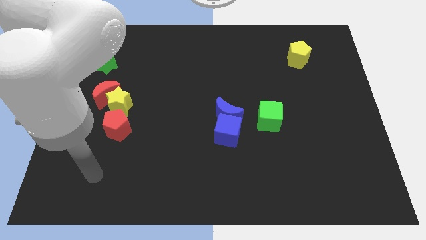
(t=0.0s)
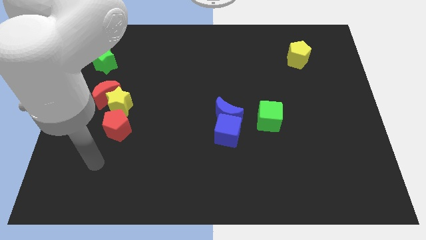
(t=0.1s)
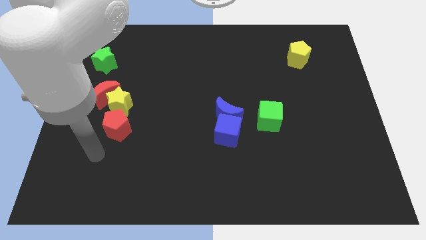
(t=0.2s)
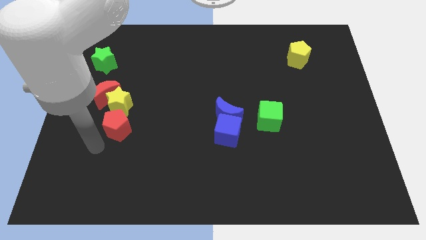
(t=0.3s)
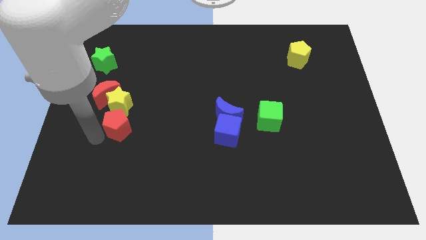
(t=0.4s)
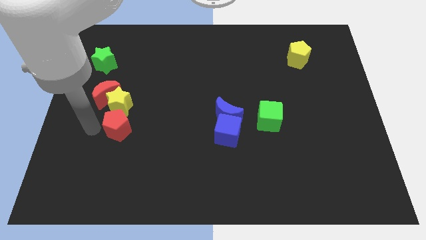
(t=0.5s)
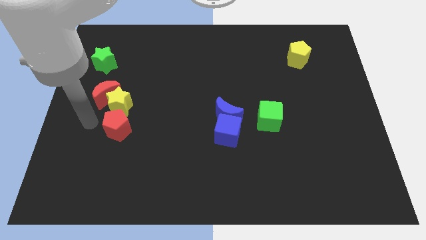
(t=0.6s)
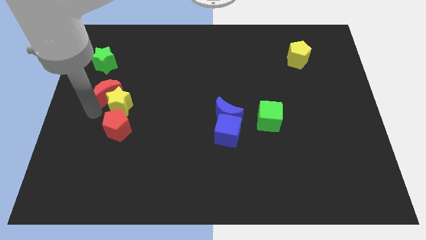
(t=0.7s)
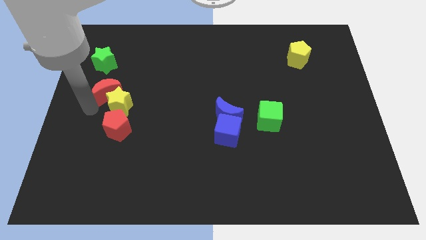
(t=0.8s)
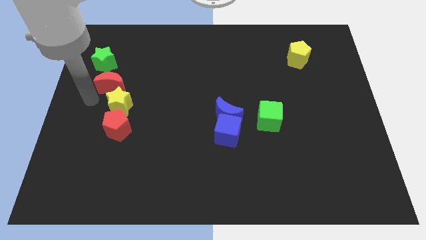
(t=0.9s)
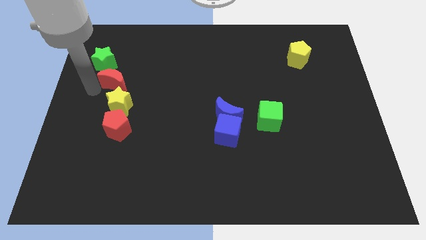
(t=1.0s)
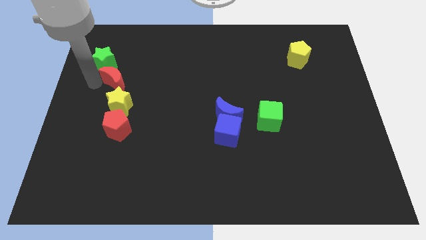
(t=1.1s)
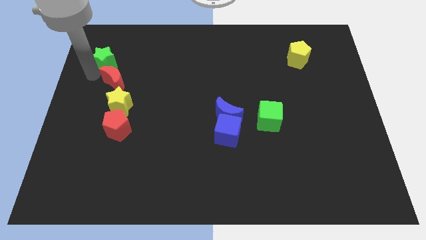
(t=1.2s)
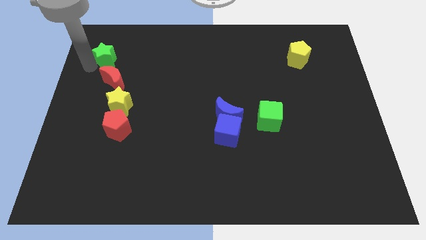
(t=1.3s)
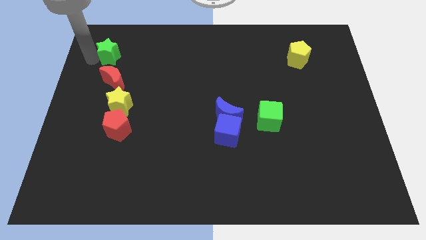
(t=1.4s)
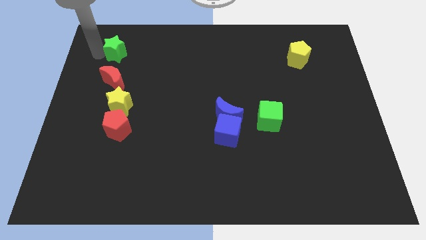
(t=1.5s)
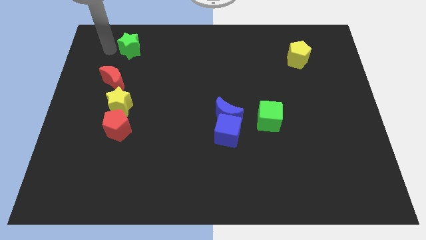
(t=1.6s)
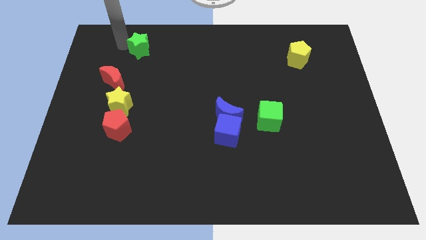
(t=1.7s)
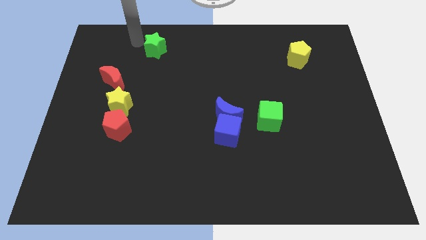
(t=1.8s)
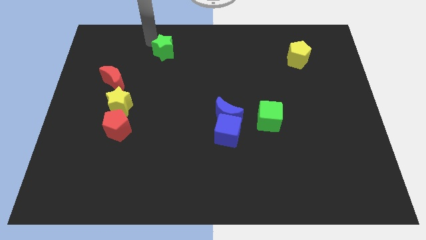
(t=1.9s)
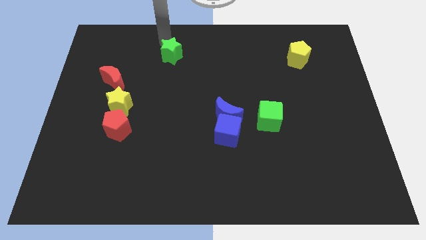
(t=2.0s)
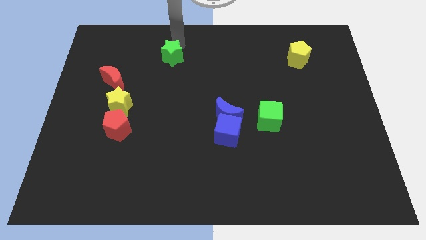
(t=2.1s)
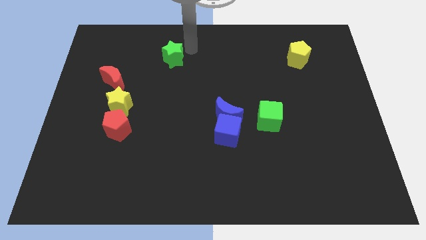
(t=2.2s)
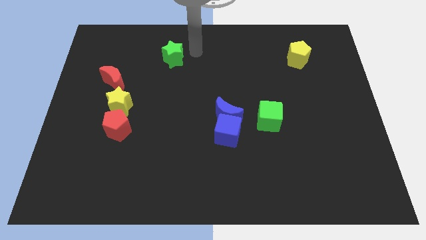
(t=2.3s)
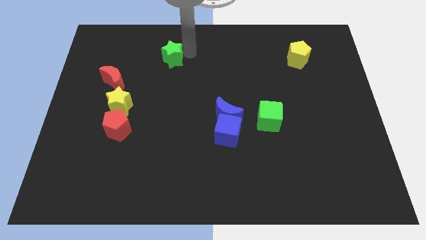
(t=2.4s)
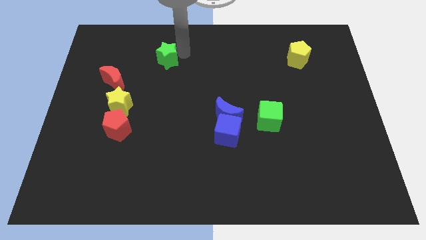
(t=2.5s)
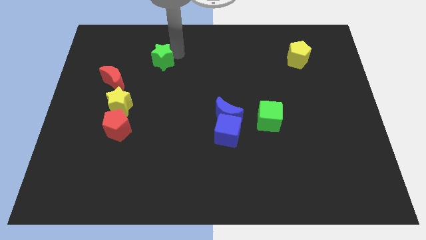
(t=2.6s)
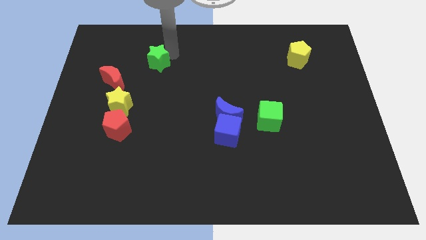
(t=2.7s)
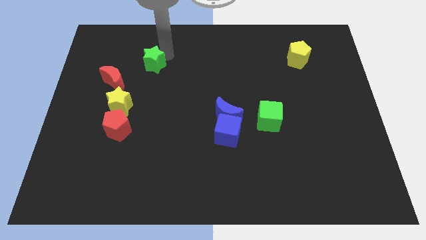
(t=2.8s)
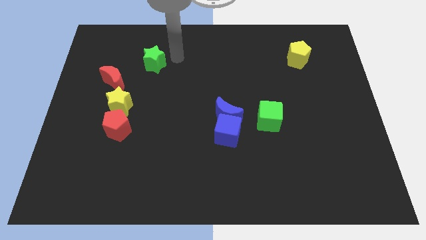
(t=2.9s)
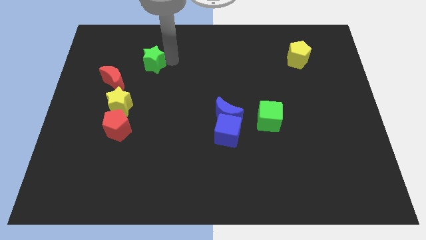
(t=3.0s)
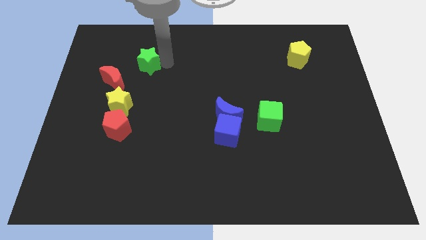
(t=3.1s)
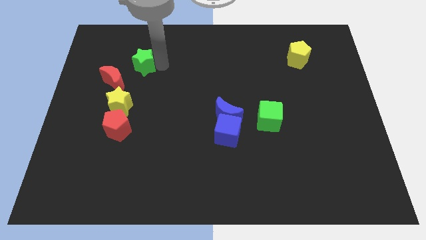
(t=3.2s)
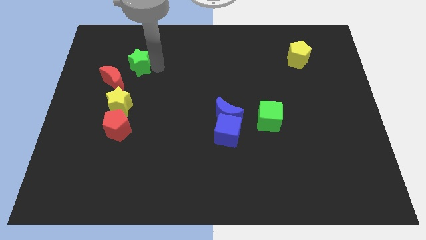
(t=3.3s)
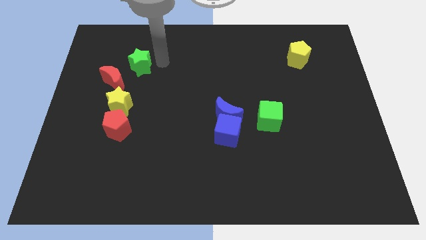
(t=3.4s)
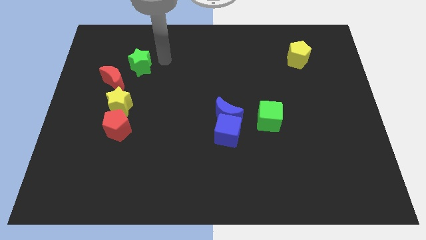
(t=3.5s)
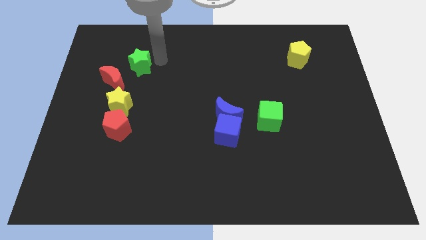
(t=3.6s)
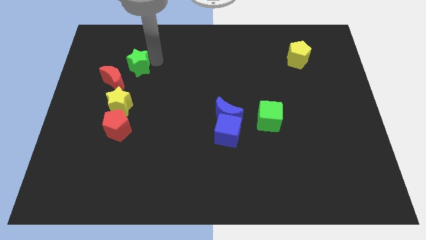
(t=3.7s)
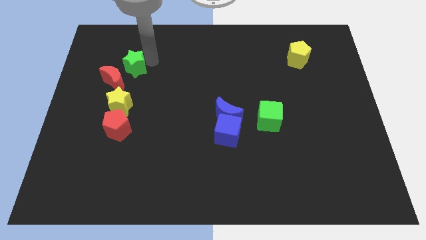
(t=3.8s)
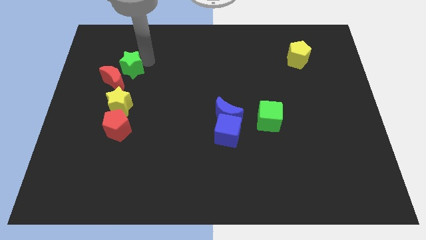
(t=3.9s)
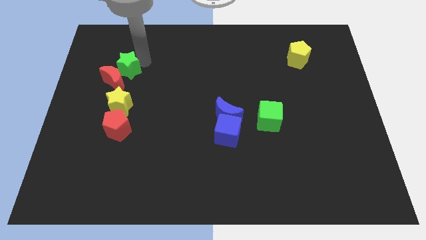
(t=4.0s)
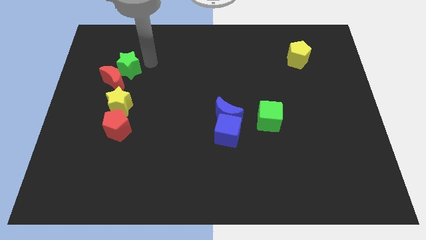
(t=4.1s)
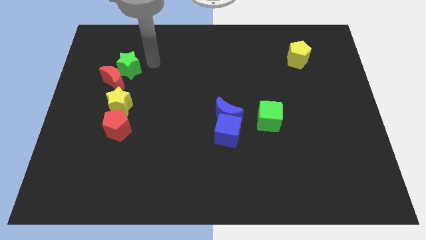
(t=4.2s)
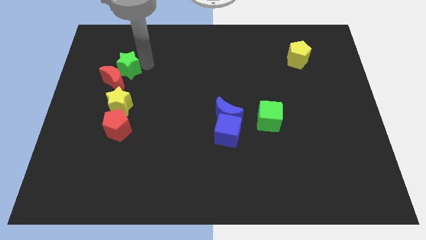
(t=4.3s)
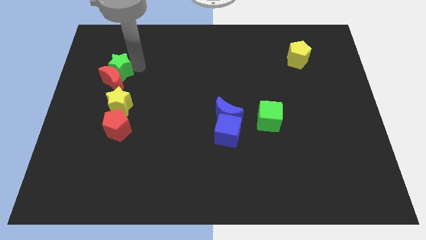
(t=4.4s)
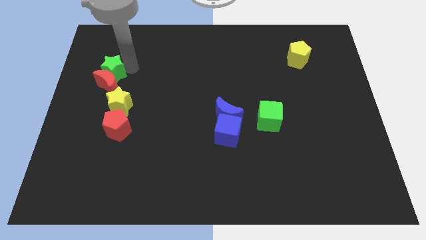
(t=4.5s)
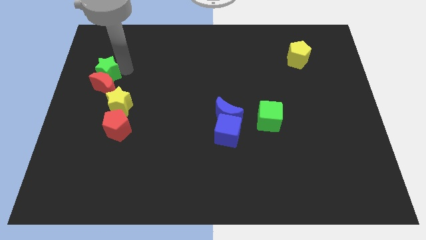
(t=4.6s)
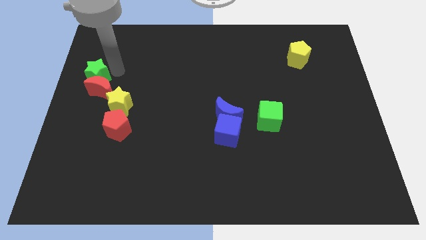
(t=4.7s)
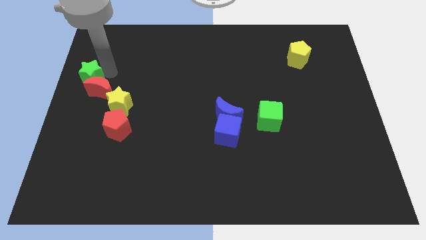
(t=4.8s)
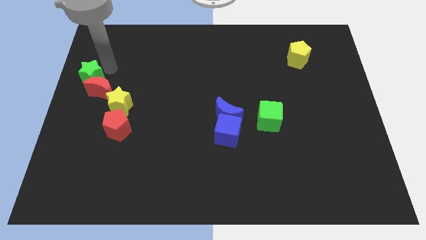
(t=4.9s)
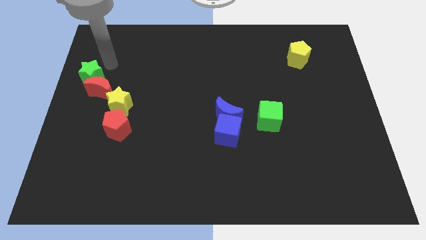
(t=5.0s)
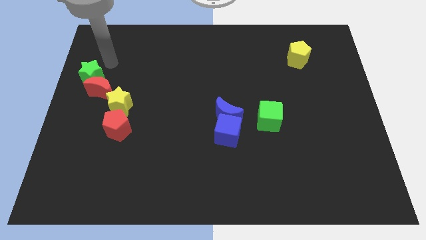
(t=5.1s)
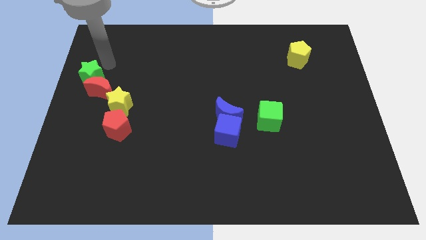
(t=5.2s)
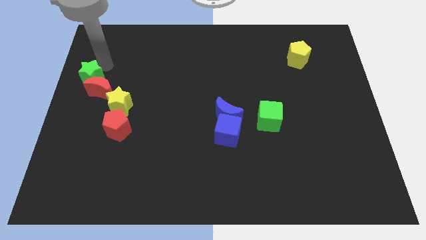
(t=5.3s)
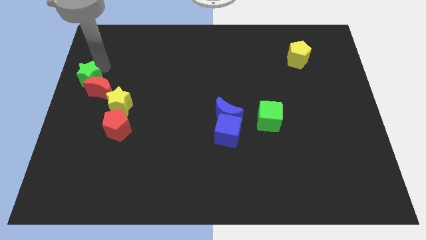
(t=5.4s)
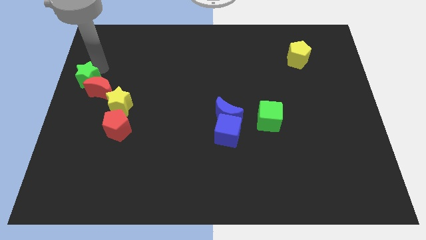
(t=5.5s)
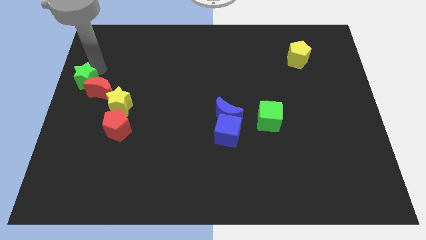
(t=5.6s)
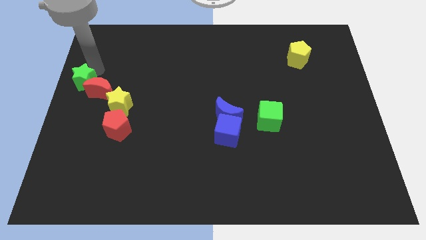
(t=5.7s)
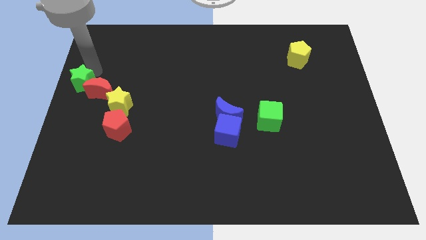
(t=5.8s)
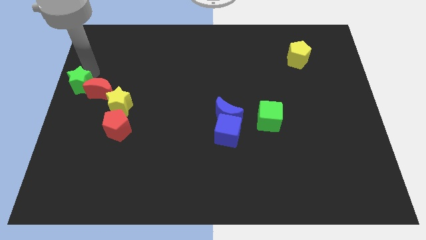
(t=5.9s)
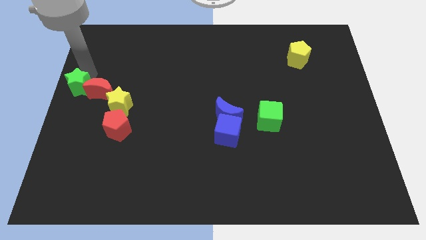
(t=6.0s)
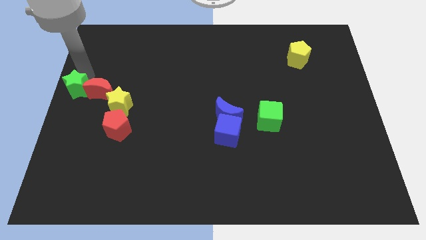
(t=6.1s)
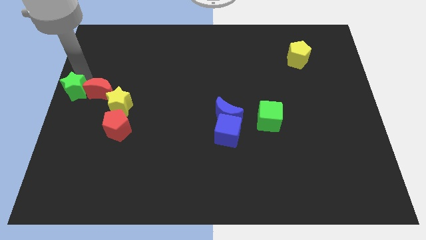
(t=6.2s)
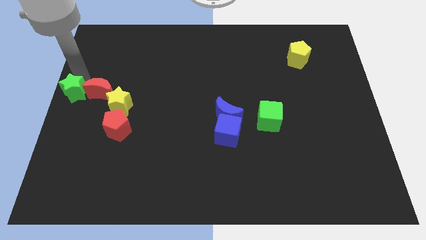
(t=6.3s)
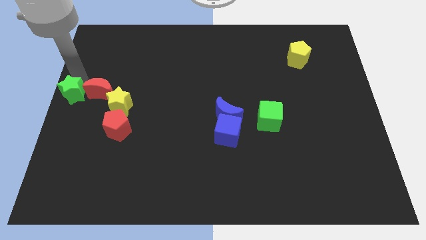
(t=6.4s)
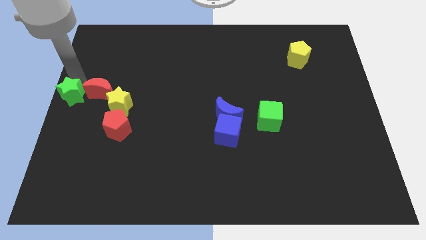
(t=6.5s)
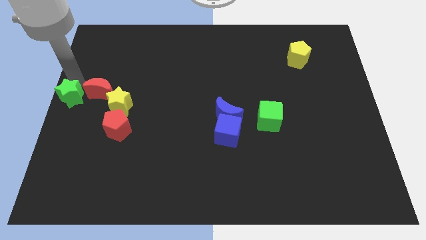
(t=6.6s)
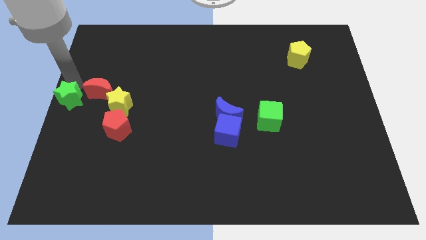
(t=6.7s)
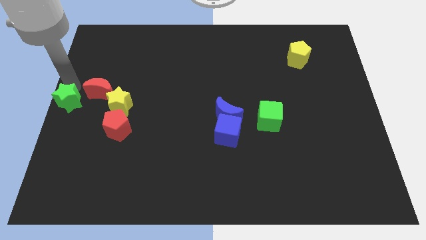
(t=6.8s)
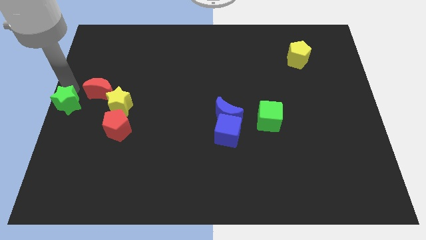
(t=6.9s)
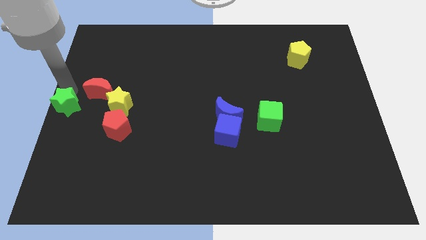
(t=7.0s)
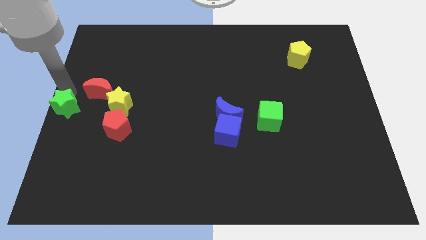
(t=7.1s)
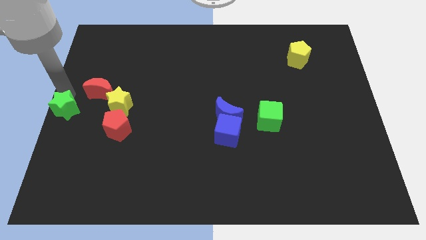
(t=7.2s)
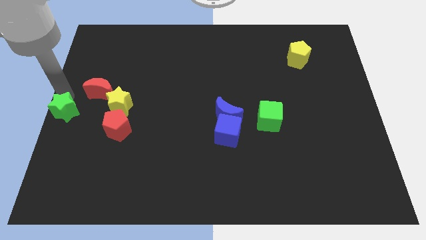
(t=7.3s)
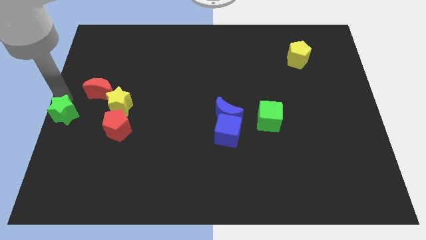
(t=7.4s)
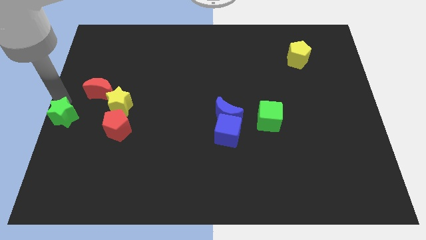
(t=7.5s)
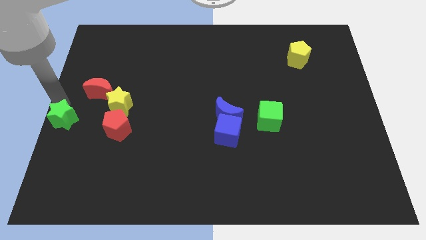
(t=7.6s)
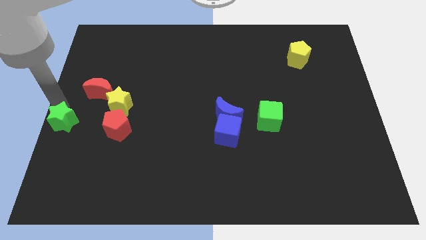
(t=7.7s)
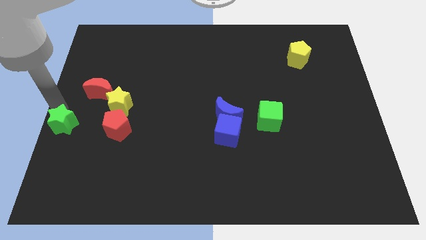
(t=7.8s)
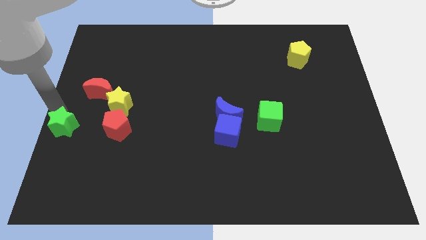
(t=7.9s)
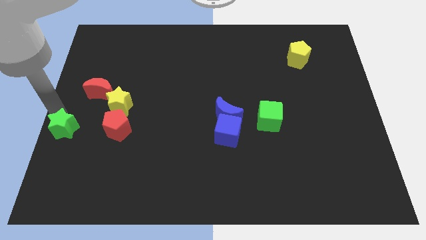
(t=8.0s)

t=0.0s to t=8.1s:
move the green star down
